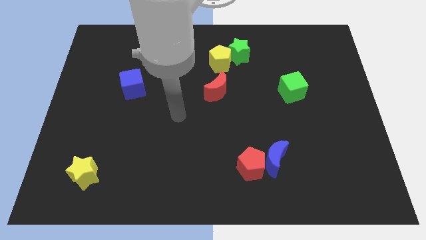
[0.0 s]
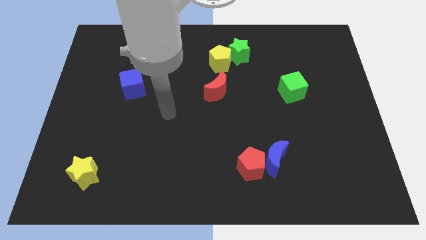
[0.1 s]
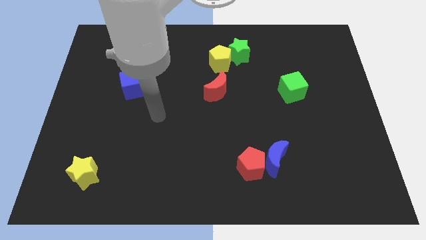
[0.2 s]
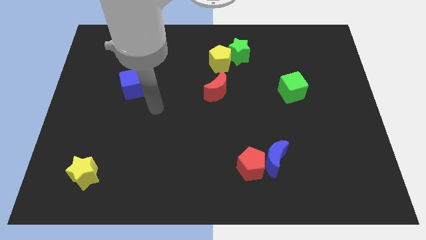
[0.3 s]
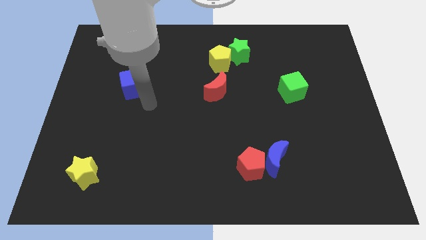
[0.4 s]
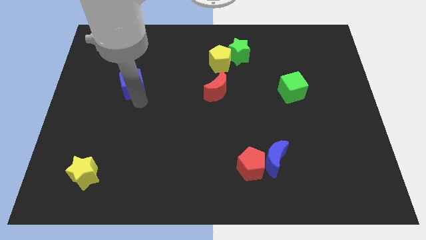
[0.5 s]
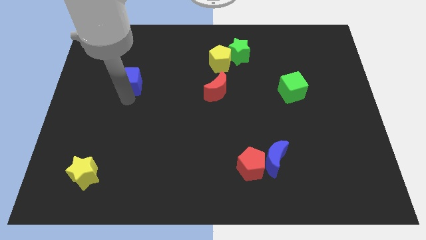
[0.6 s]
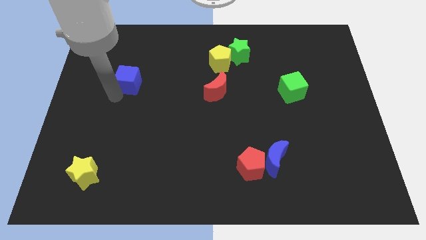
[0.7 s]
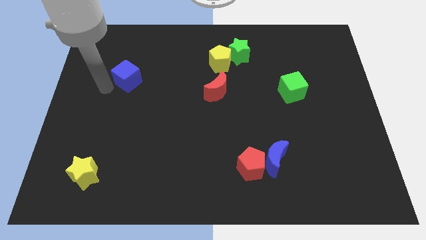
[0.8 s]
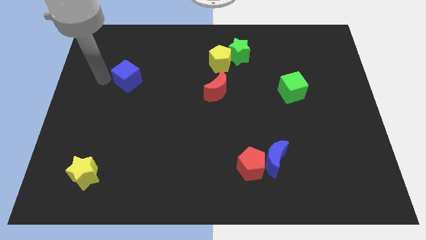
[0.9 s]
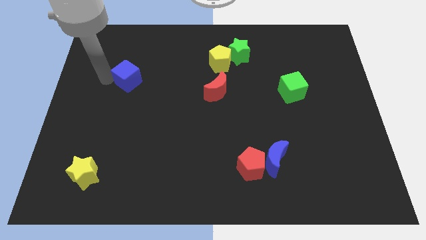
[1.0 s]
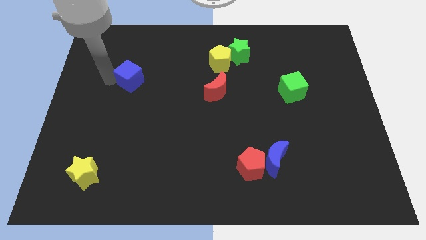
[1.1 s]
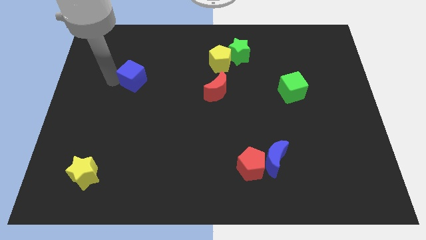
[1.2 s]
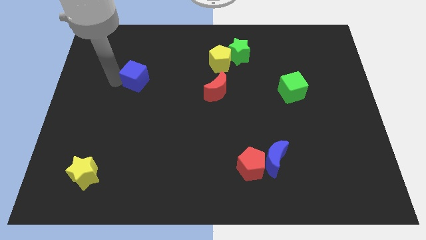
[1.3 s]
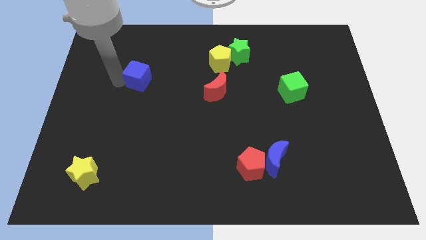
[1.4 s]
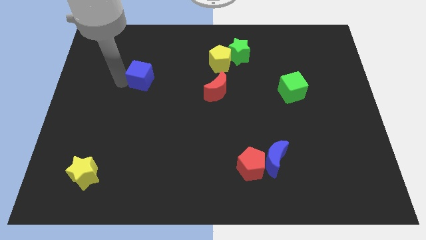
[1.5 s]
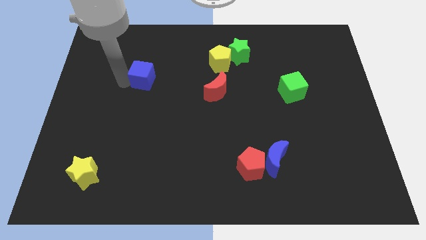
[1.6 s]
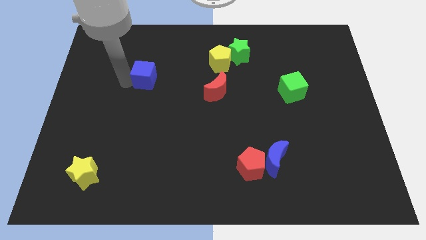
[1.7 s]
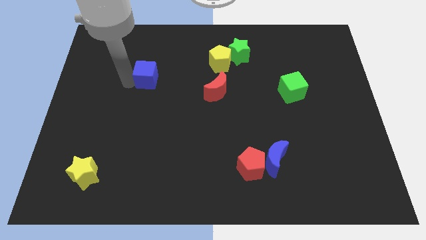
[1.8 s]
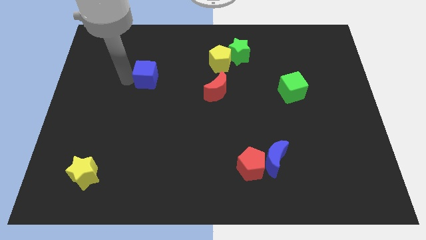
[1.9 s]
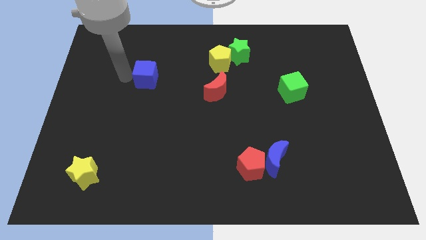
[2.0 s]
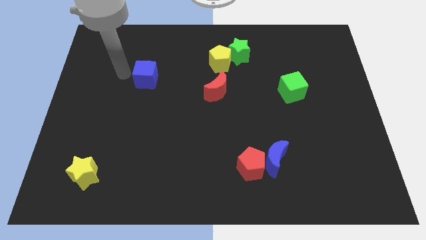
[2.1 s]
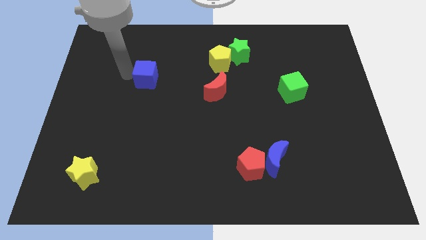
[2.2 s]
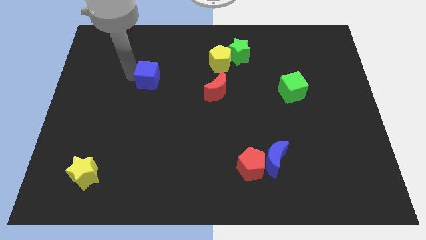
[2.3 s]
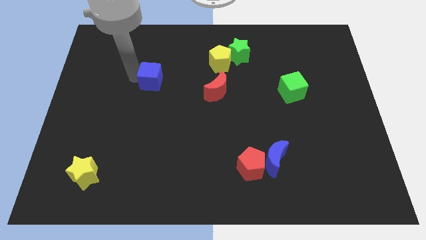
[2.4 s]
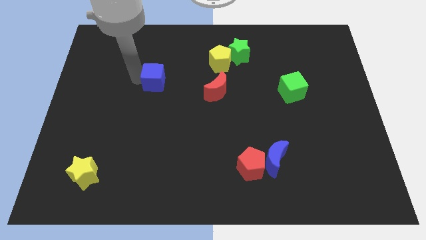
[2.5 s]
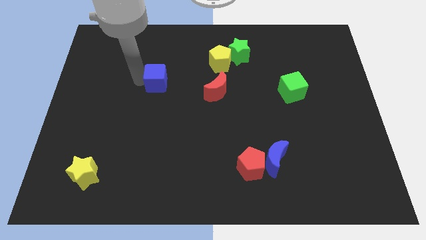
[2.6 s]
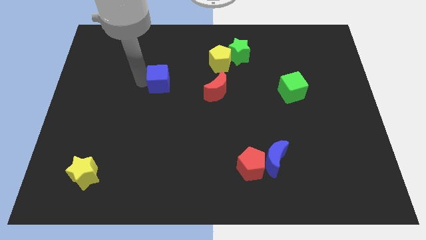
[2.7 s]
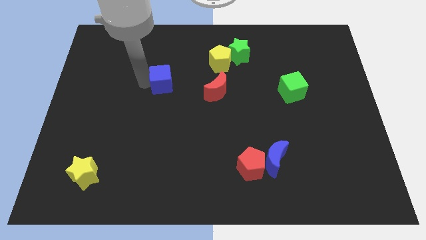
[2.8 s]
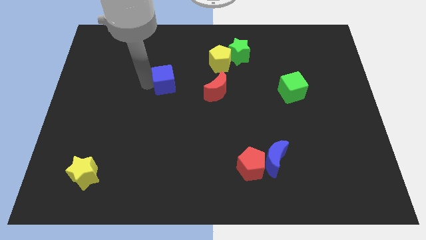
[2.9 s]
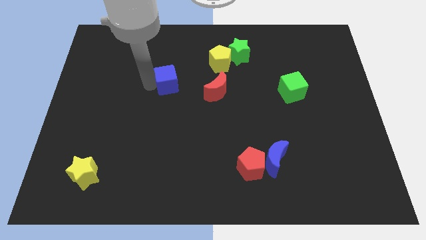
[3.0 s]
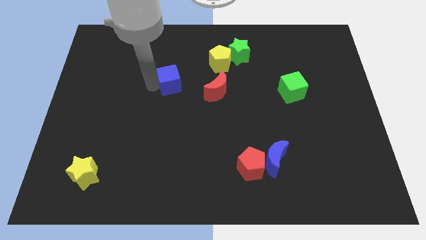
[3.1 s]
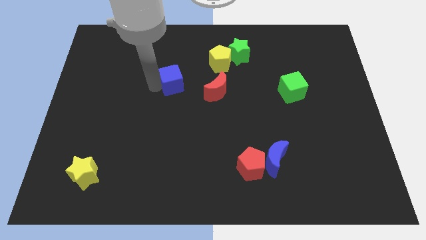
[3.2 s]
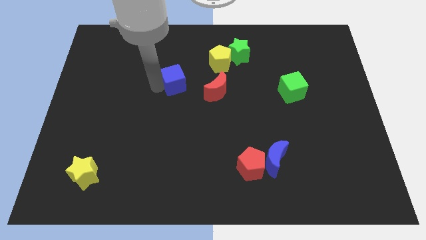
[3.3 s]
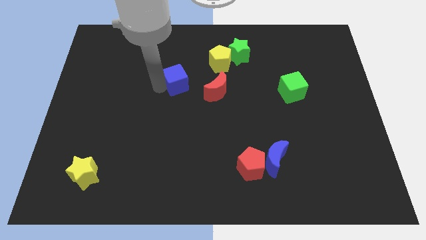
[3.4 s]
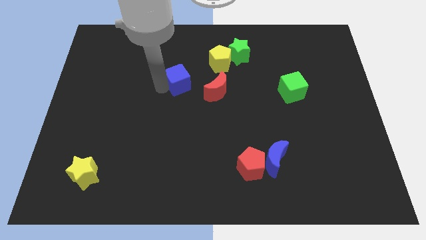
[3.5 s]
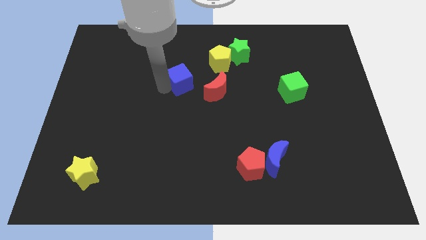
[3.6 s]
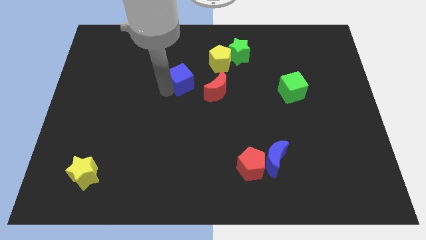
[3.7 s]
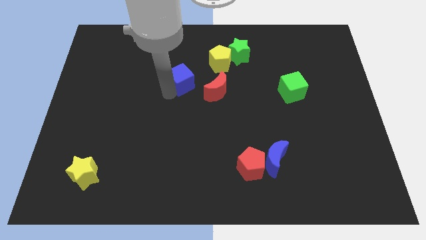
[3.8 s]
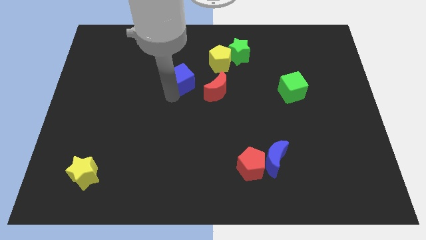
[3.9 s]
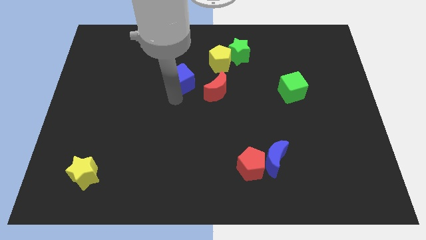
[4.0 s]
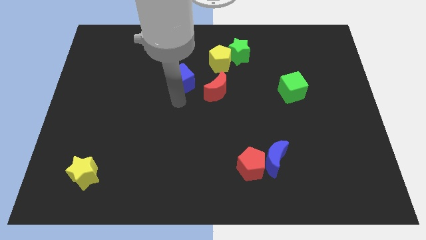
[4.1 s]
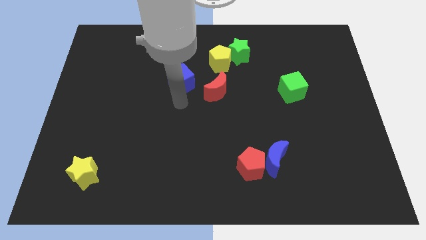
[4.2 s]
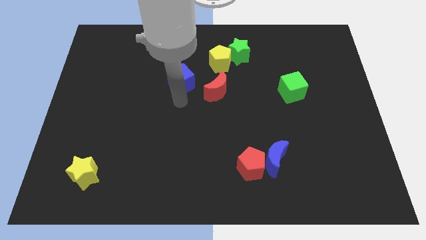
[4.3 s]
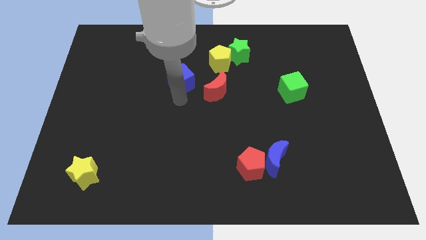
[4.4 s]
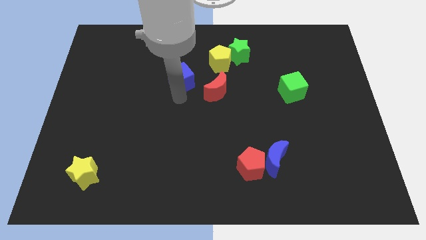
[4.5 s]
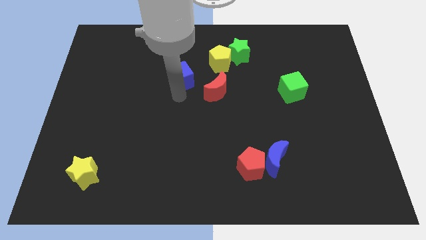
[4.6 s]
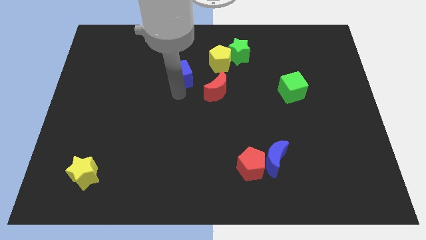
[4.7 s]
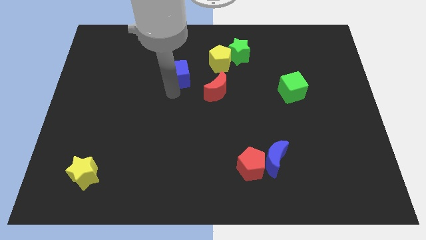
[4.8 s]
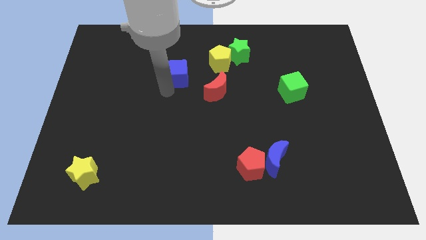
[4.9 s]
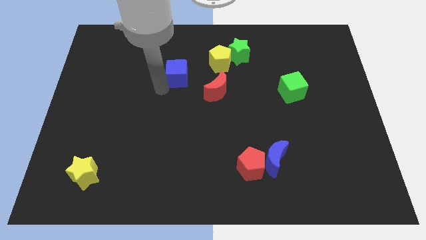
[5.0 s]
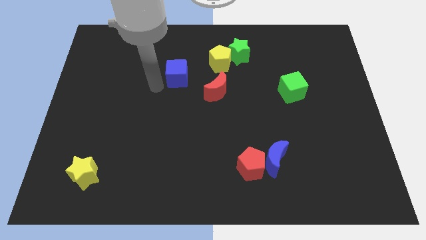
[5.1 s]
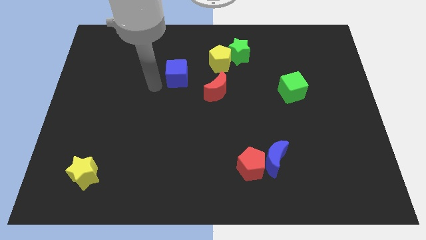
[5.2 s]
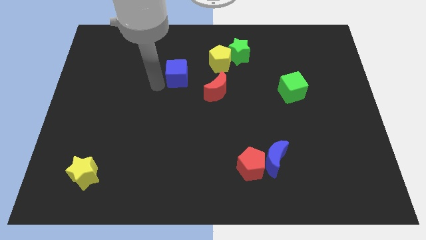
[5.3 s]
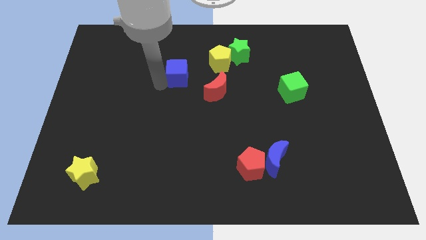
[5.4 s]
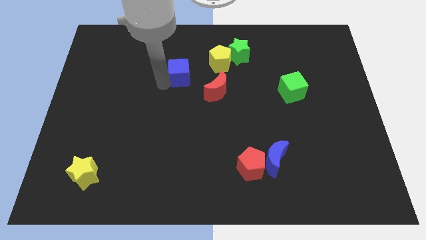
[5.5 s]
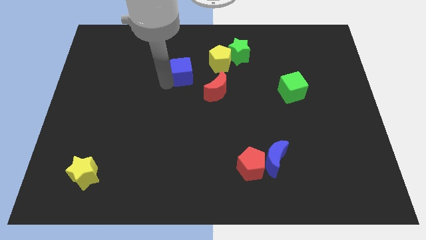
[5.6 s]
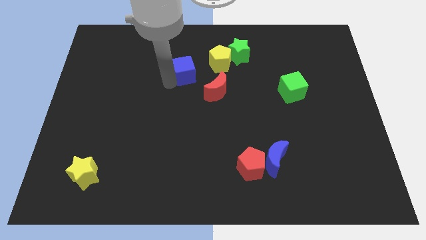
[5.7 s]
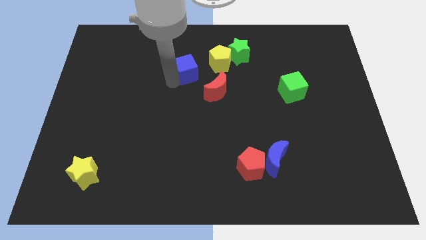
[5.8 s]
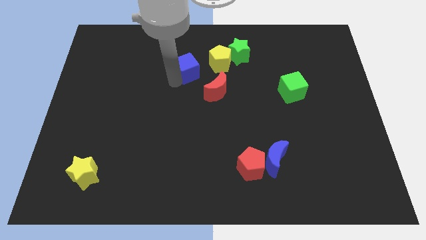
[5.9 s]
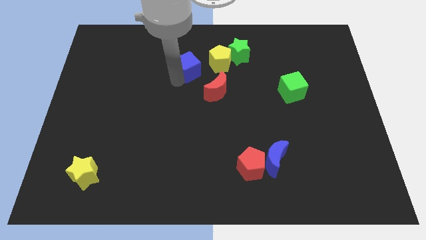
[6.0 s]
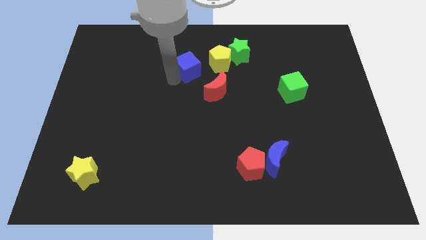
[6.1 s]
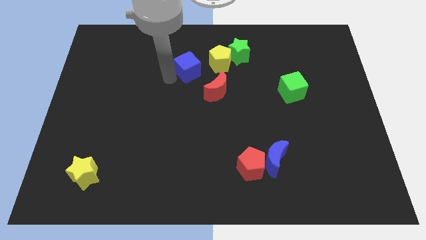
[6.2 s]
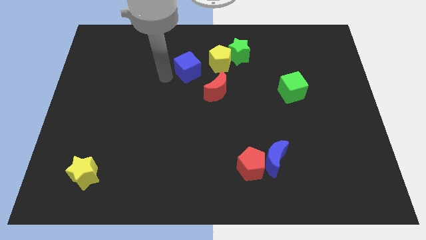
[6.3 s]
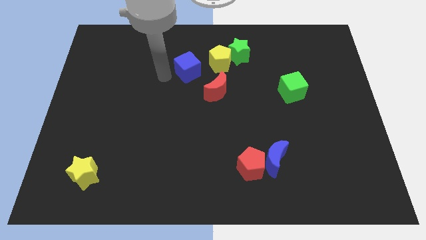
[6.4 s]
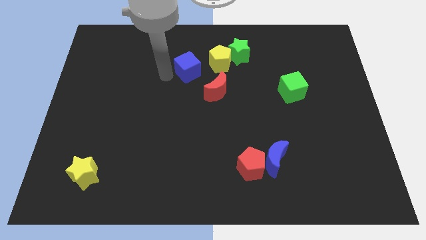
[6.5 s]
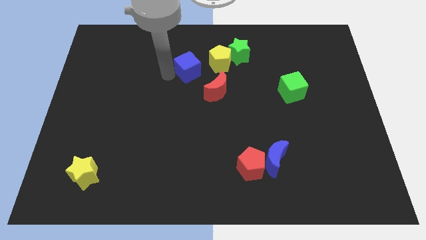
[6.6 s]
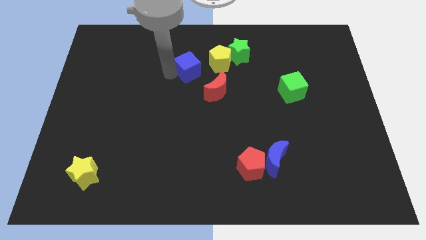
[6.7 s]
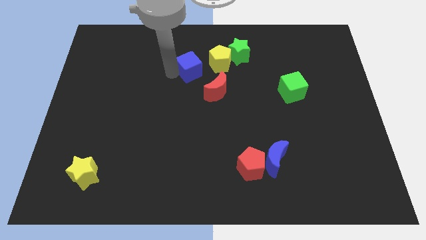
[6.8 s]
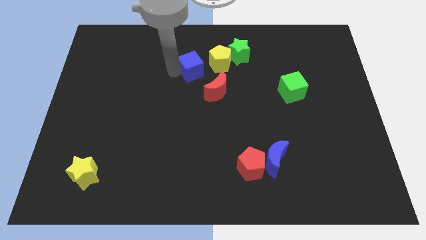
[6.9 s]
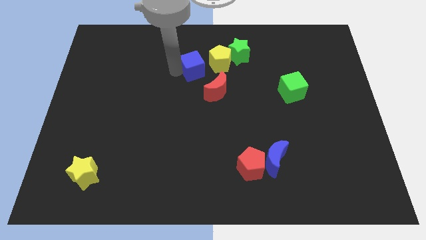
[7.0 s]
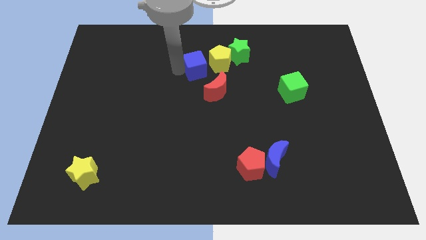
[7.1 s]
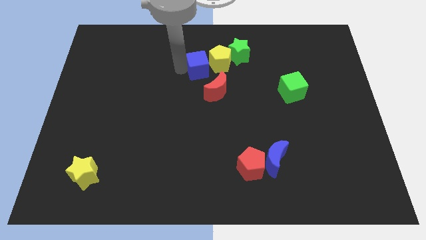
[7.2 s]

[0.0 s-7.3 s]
push the blue cube close to the yellow pentagon
